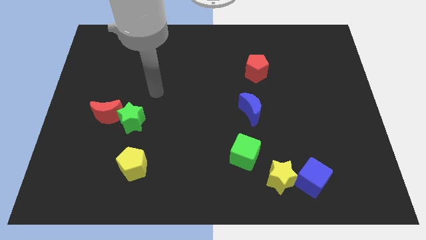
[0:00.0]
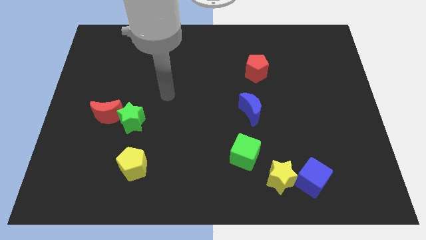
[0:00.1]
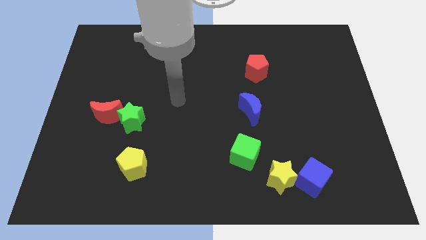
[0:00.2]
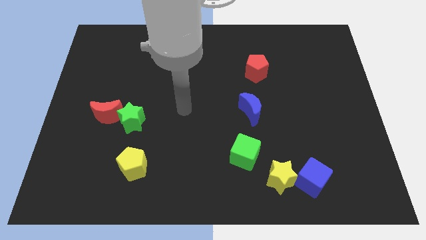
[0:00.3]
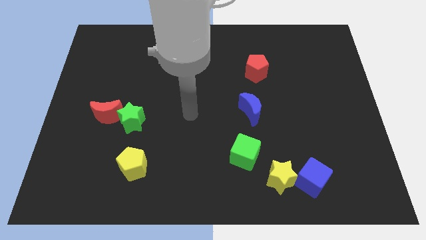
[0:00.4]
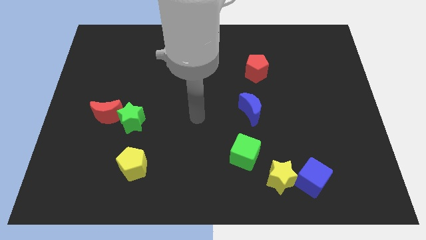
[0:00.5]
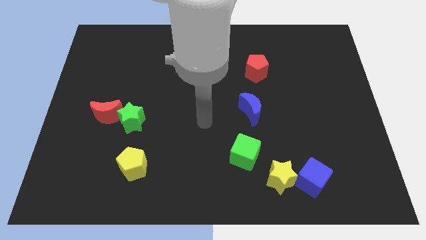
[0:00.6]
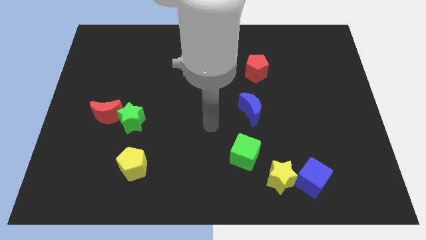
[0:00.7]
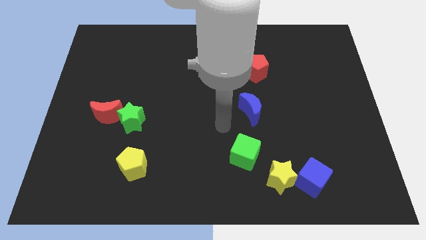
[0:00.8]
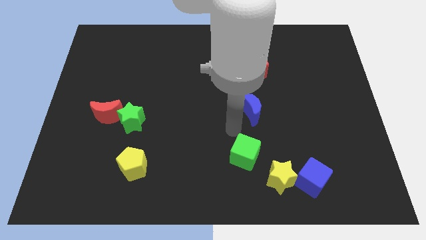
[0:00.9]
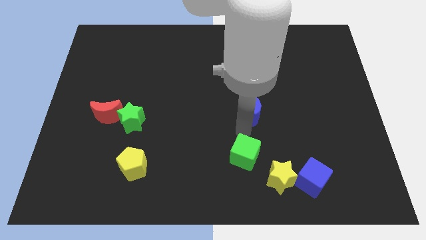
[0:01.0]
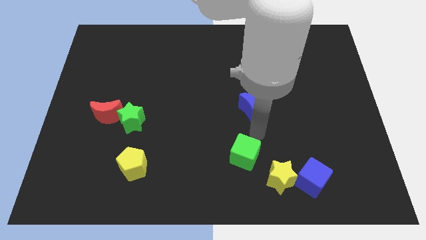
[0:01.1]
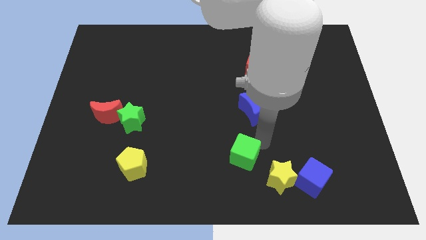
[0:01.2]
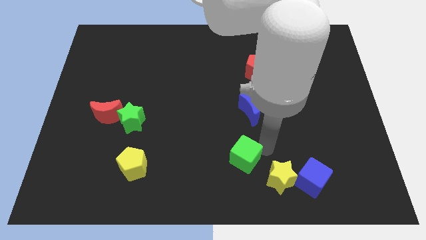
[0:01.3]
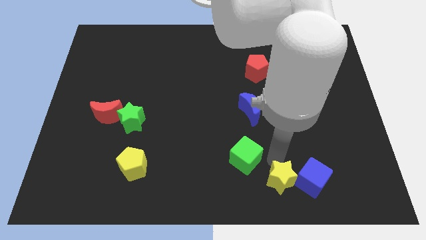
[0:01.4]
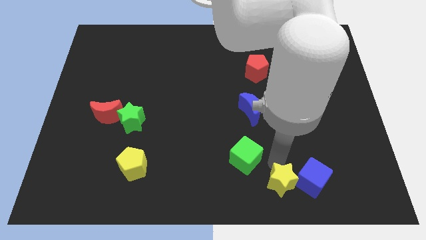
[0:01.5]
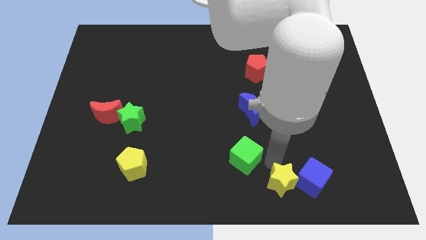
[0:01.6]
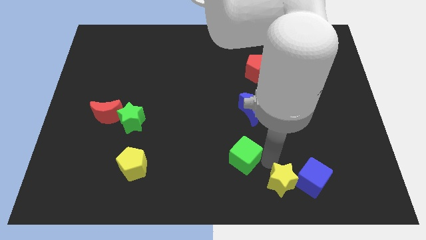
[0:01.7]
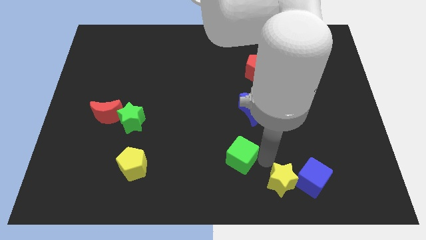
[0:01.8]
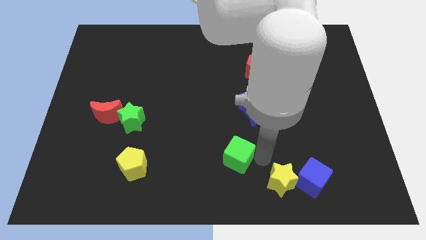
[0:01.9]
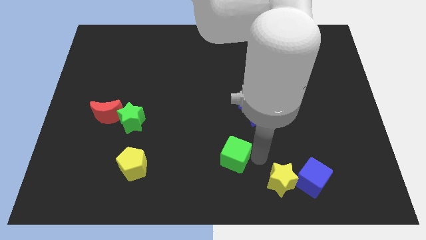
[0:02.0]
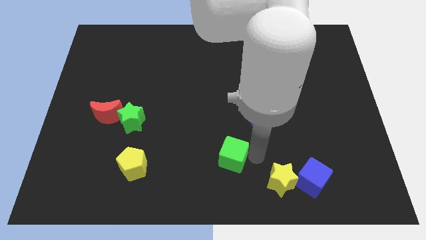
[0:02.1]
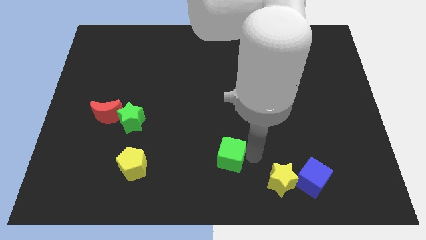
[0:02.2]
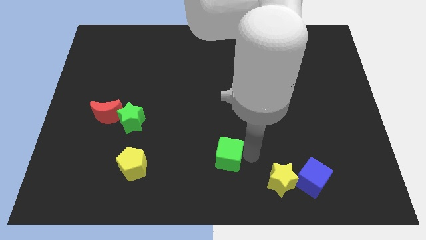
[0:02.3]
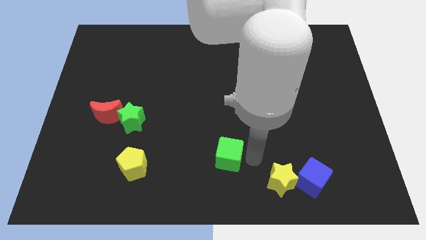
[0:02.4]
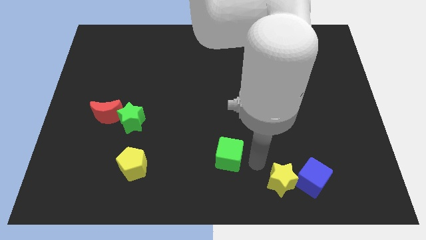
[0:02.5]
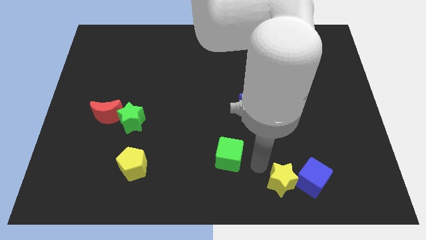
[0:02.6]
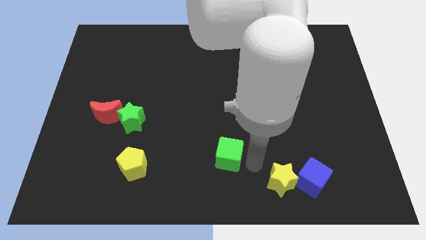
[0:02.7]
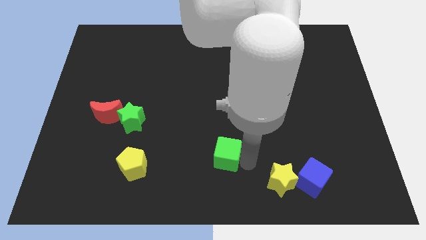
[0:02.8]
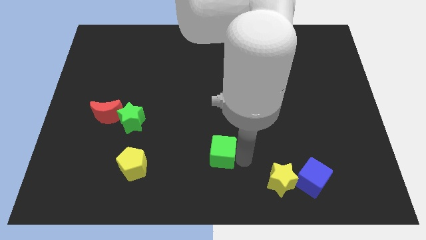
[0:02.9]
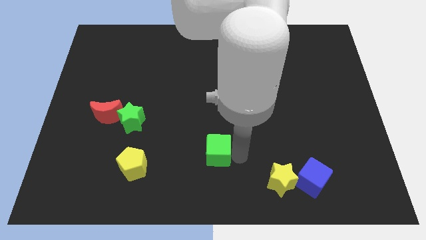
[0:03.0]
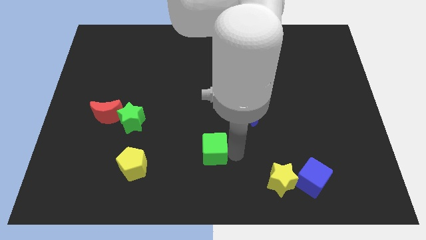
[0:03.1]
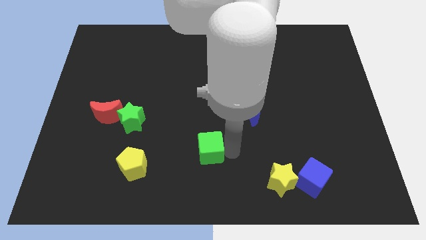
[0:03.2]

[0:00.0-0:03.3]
push the green cube a little bit left

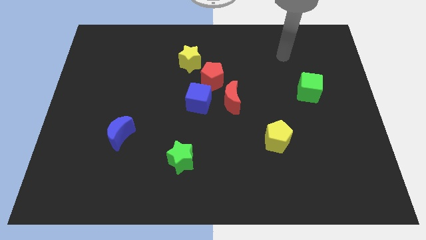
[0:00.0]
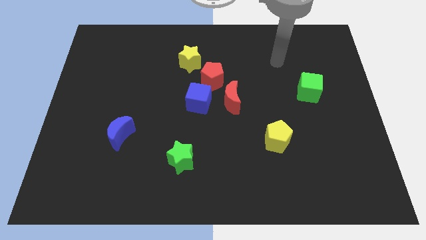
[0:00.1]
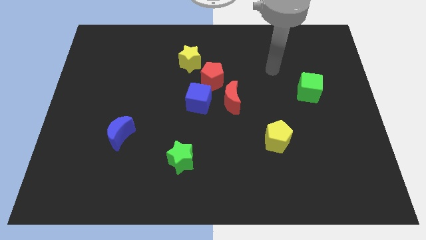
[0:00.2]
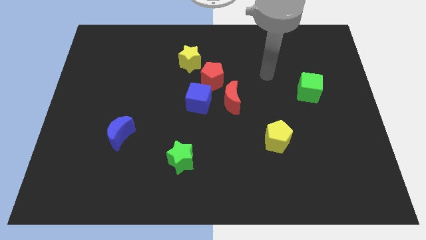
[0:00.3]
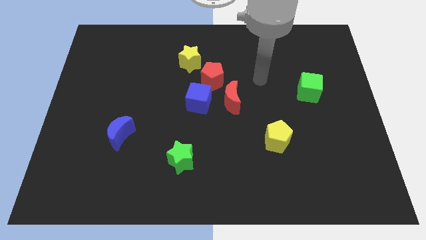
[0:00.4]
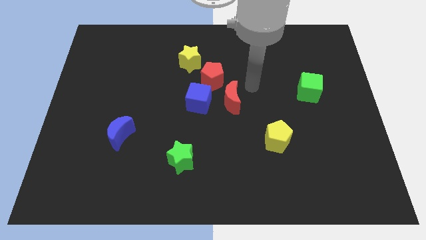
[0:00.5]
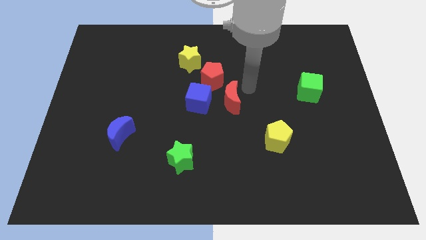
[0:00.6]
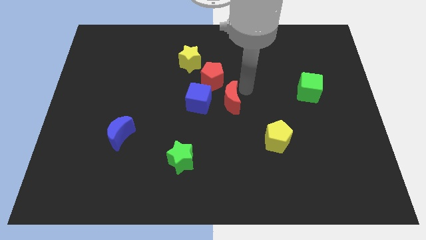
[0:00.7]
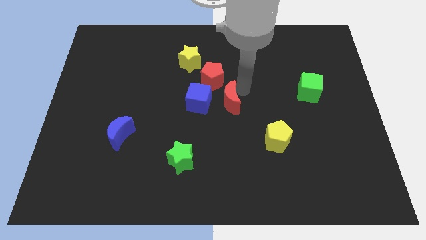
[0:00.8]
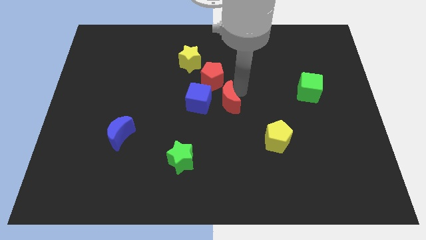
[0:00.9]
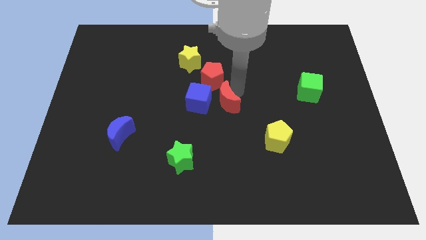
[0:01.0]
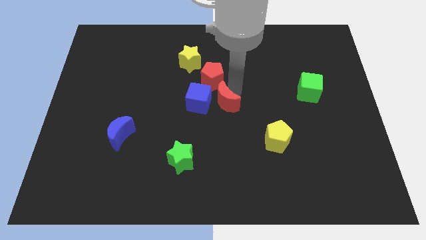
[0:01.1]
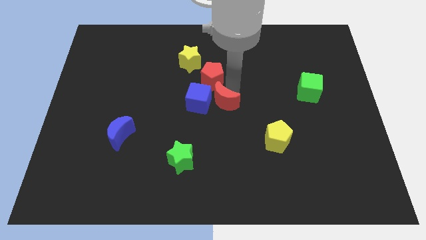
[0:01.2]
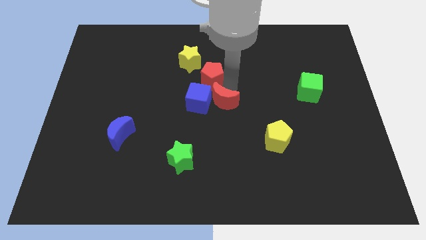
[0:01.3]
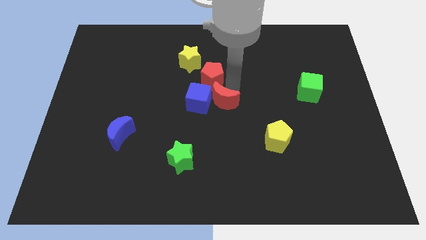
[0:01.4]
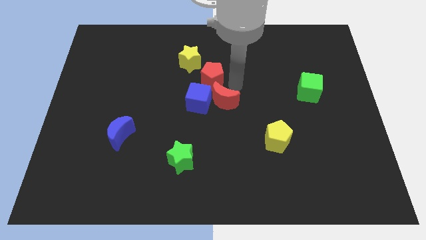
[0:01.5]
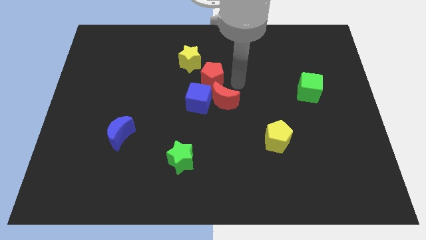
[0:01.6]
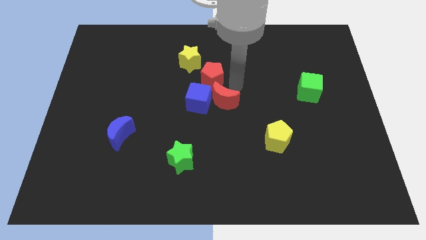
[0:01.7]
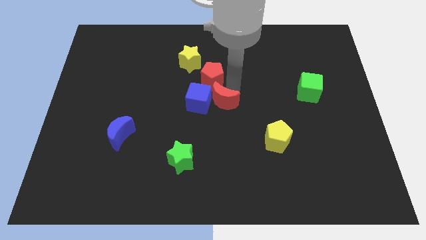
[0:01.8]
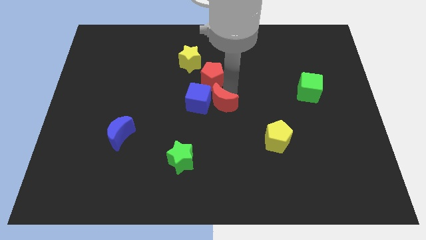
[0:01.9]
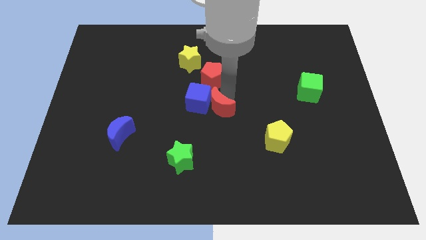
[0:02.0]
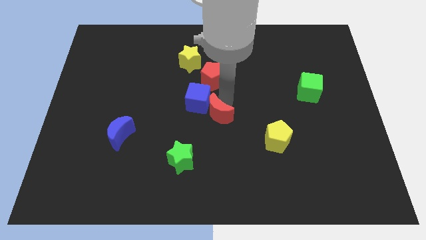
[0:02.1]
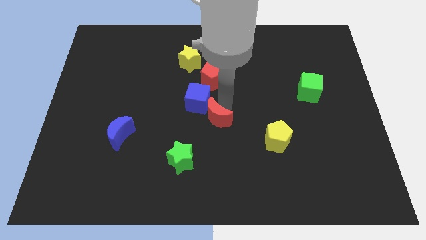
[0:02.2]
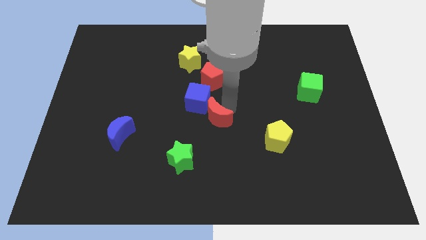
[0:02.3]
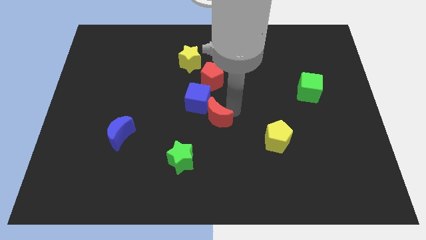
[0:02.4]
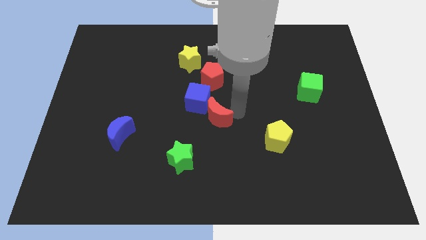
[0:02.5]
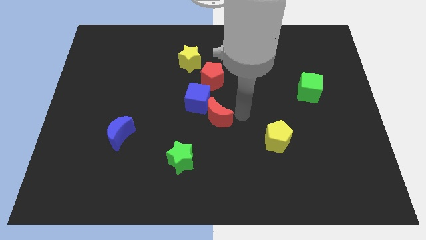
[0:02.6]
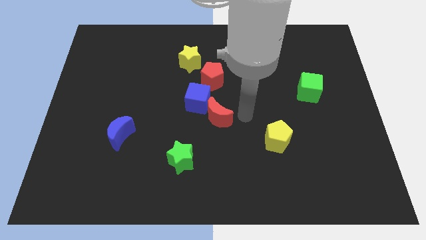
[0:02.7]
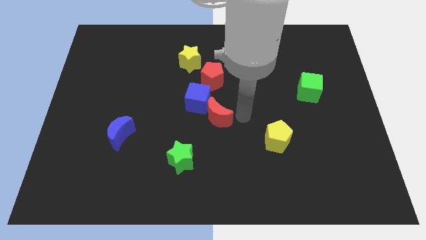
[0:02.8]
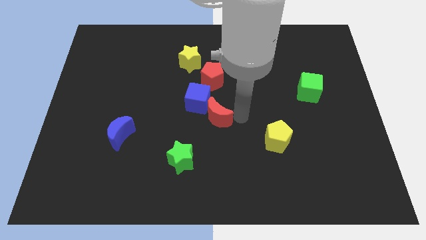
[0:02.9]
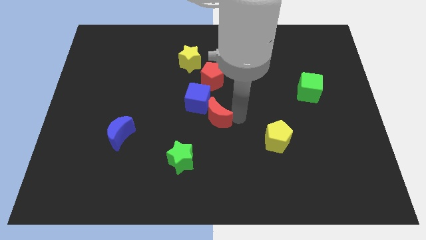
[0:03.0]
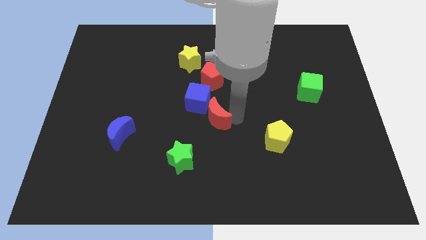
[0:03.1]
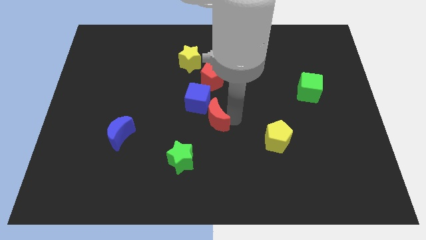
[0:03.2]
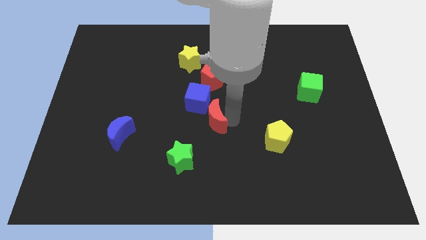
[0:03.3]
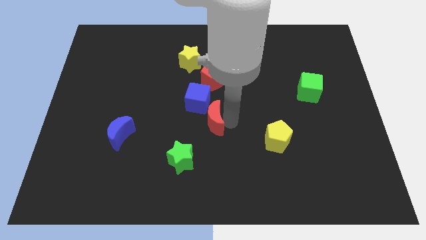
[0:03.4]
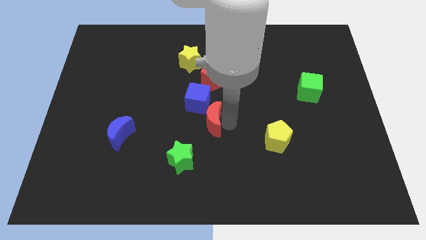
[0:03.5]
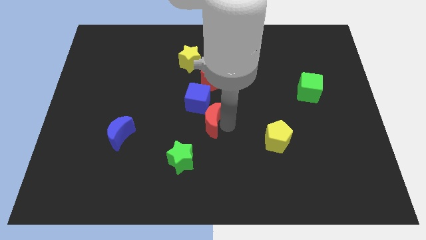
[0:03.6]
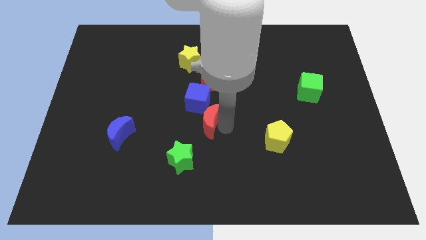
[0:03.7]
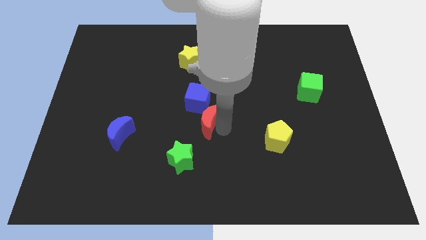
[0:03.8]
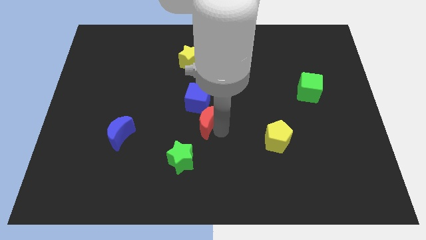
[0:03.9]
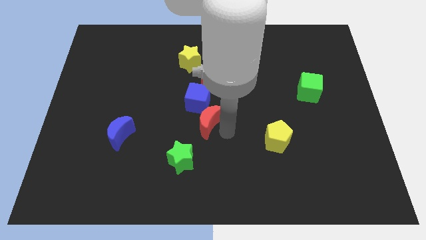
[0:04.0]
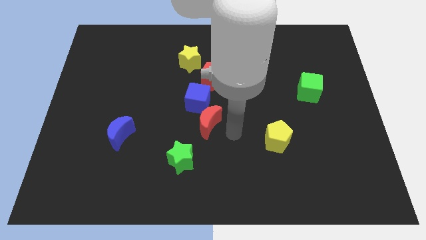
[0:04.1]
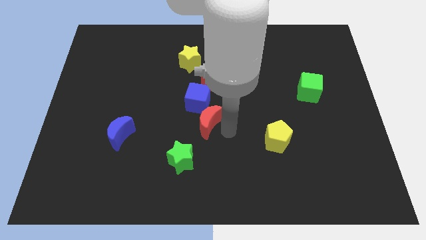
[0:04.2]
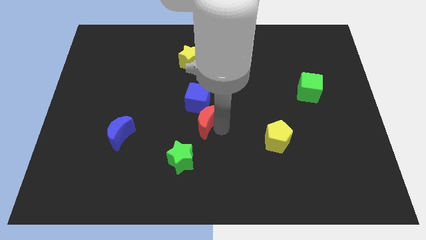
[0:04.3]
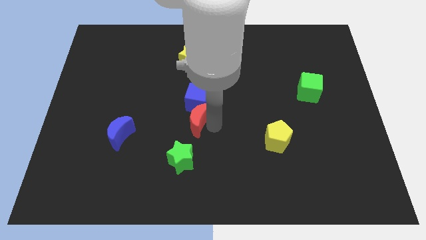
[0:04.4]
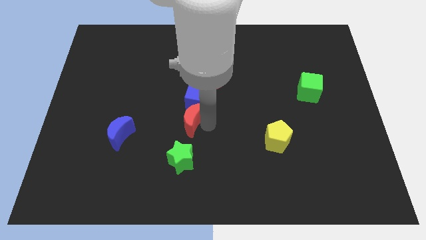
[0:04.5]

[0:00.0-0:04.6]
move the red moon left slightly
